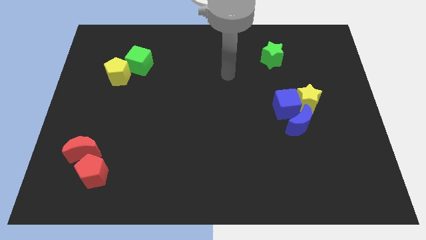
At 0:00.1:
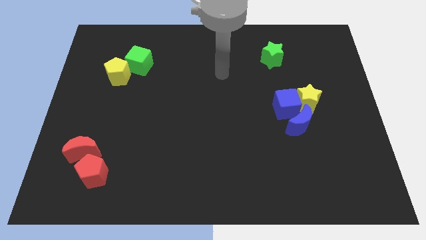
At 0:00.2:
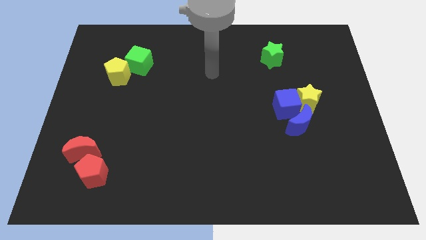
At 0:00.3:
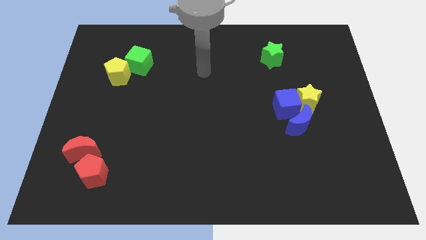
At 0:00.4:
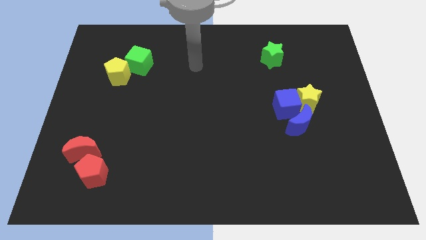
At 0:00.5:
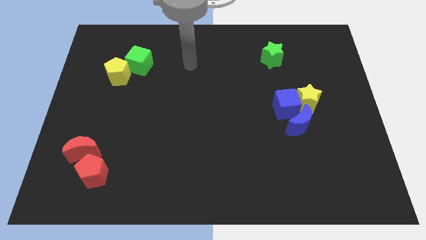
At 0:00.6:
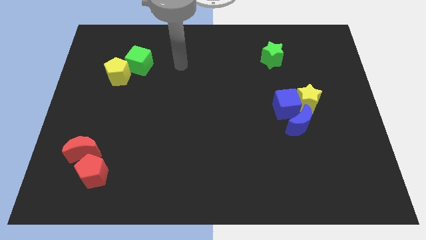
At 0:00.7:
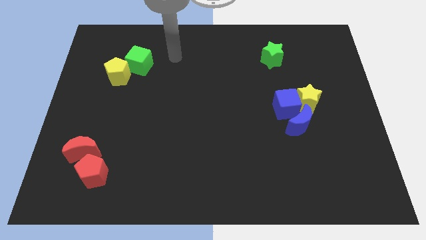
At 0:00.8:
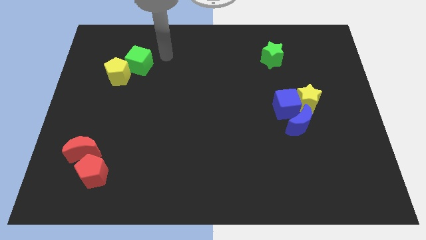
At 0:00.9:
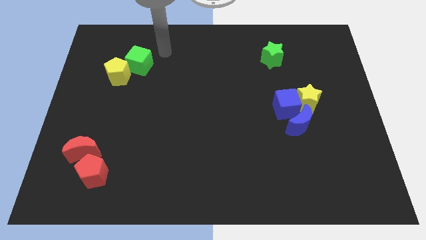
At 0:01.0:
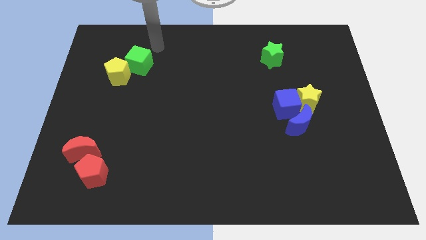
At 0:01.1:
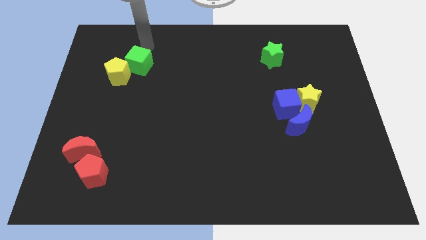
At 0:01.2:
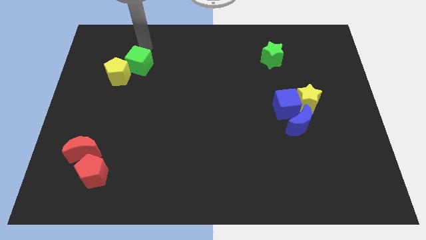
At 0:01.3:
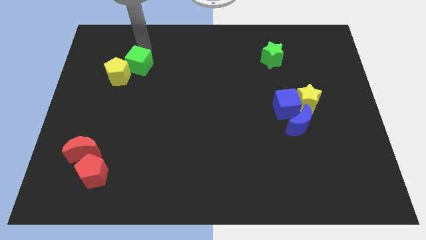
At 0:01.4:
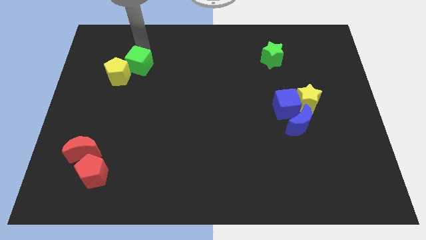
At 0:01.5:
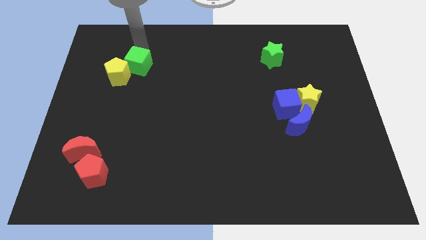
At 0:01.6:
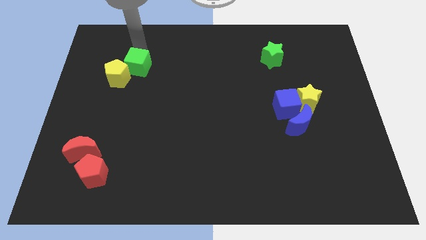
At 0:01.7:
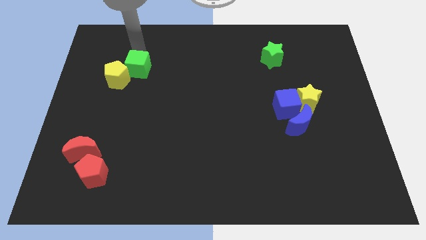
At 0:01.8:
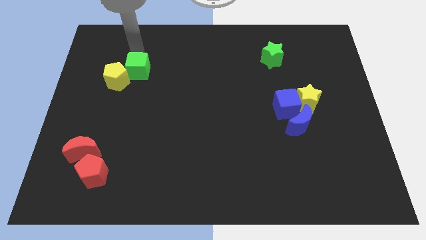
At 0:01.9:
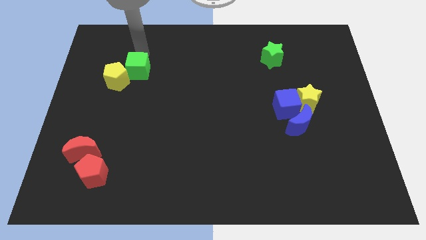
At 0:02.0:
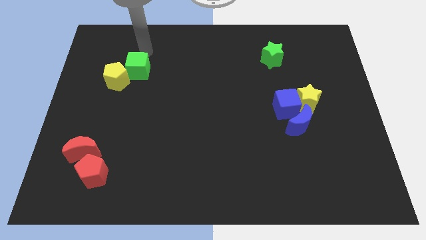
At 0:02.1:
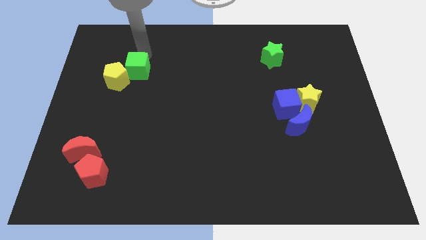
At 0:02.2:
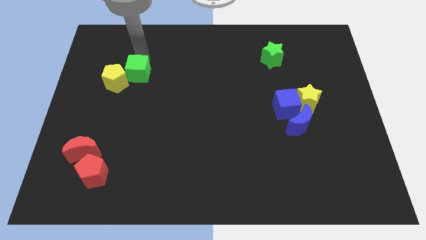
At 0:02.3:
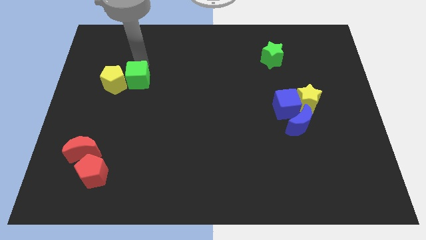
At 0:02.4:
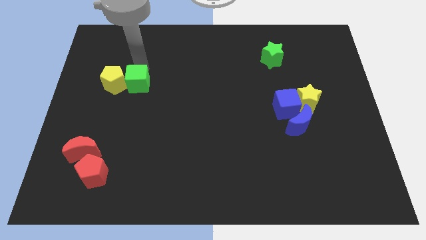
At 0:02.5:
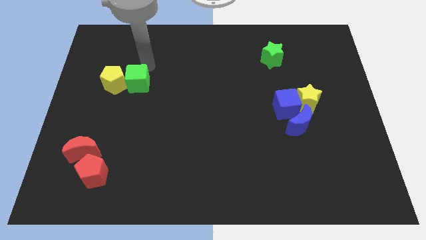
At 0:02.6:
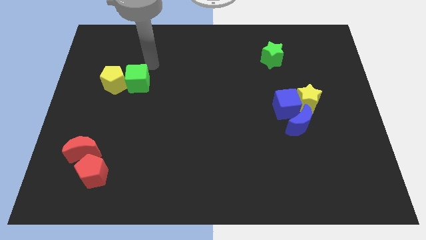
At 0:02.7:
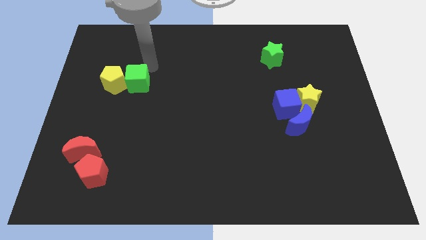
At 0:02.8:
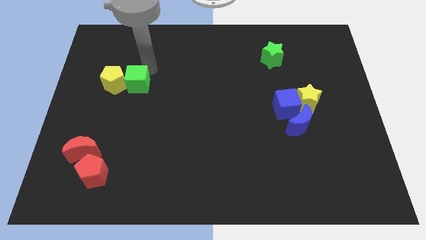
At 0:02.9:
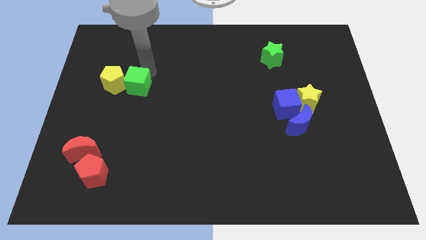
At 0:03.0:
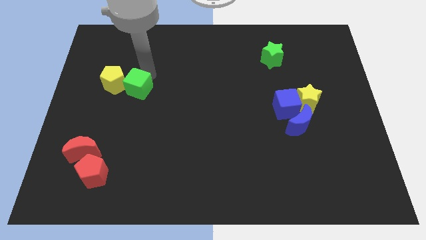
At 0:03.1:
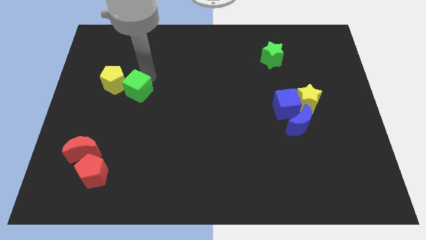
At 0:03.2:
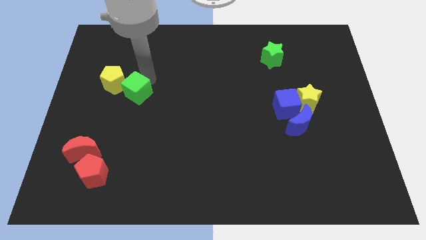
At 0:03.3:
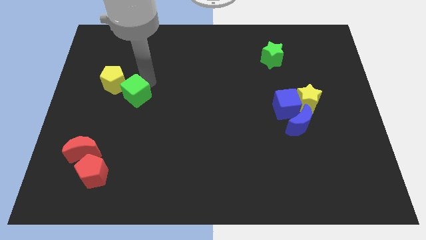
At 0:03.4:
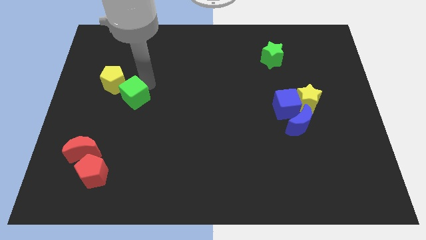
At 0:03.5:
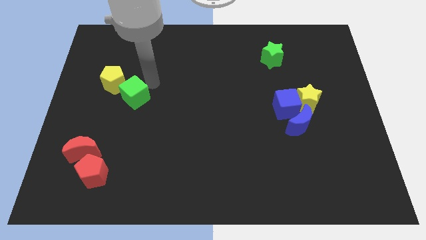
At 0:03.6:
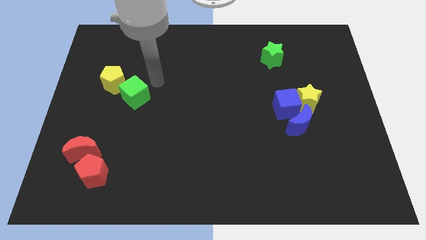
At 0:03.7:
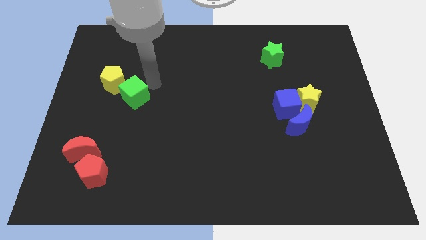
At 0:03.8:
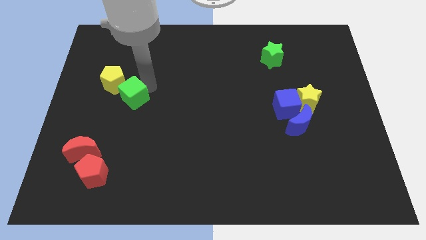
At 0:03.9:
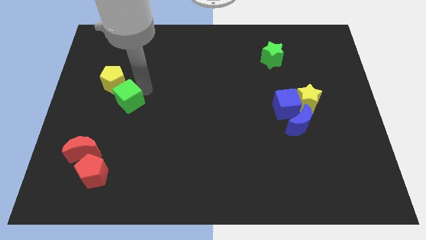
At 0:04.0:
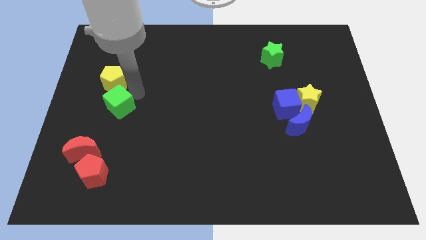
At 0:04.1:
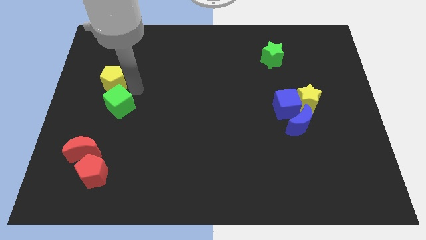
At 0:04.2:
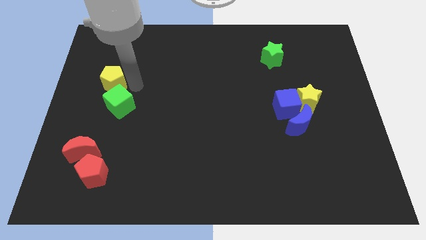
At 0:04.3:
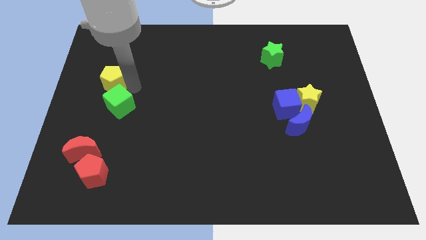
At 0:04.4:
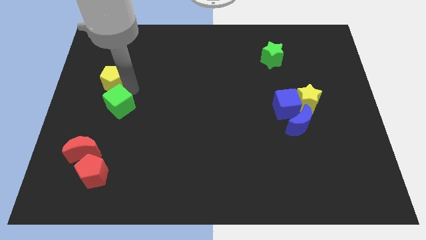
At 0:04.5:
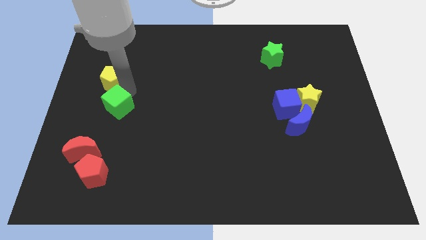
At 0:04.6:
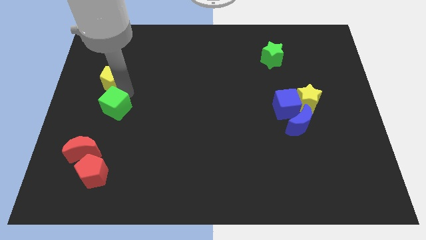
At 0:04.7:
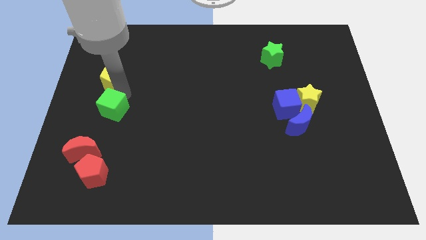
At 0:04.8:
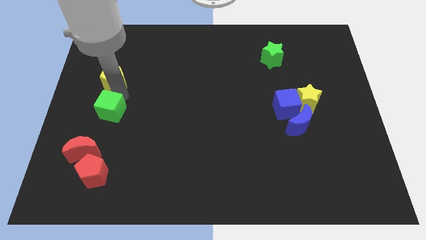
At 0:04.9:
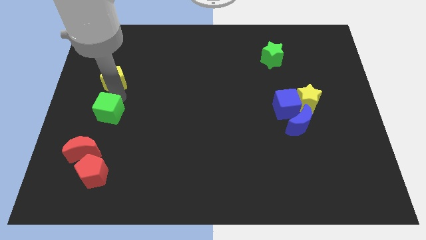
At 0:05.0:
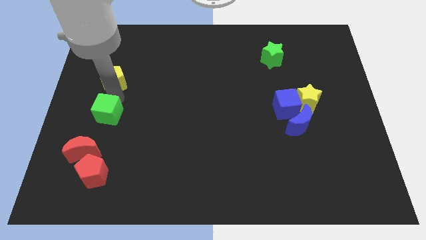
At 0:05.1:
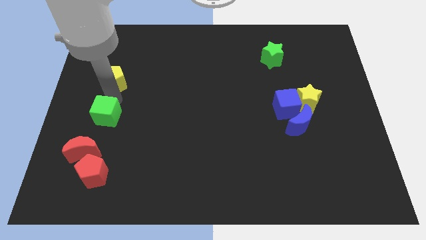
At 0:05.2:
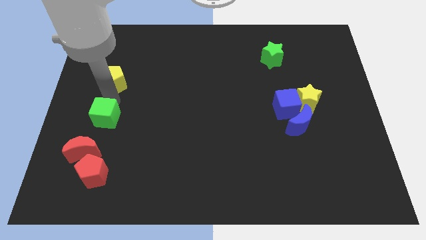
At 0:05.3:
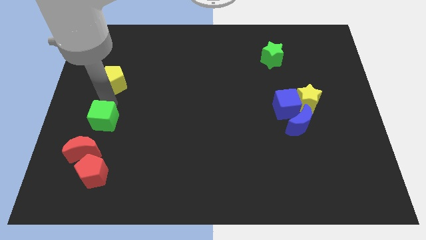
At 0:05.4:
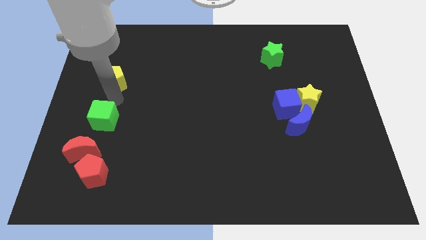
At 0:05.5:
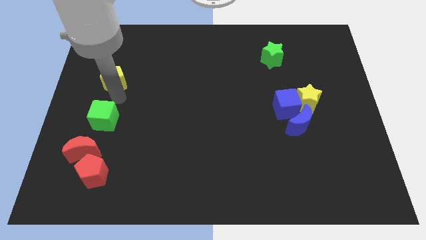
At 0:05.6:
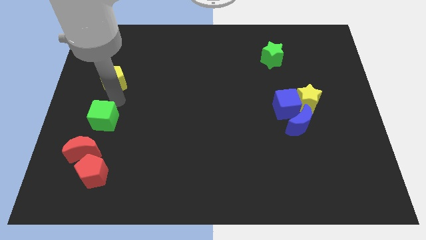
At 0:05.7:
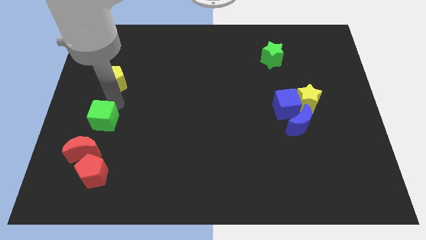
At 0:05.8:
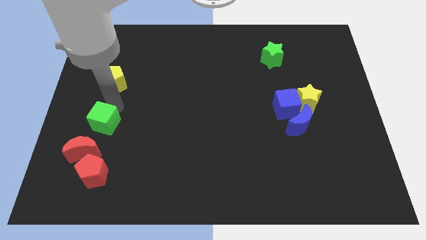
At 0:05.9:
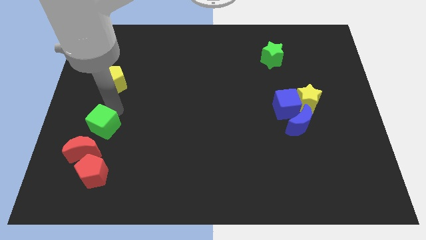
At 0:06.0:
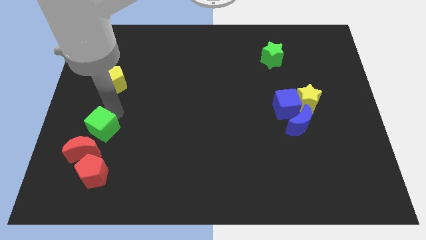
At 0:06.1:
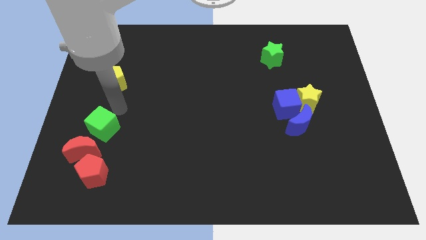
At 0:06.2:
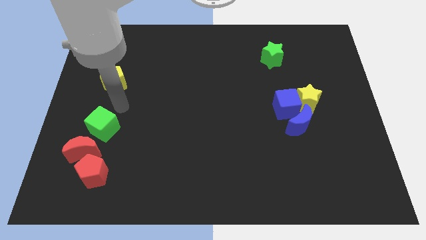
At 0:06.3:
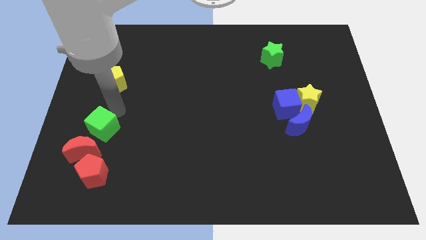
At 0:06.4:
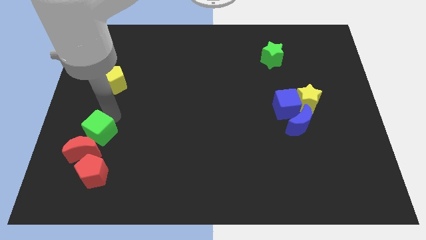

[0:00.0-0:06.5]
slide the green cube next to the red moon

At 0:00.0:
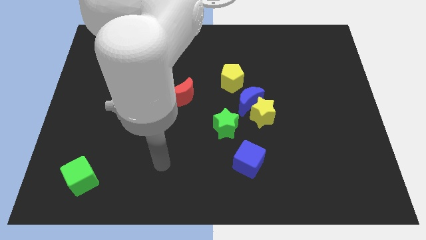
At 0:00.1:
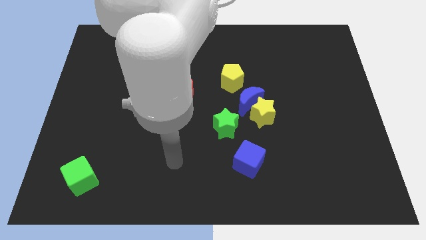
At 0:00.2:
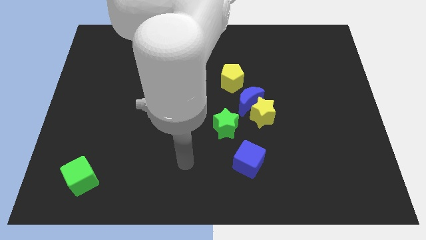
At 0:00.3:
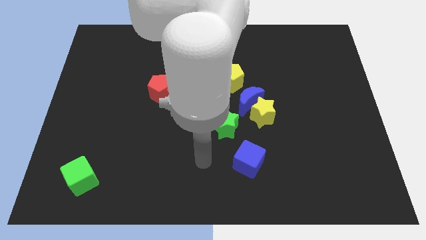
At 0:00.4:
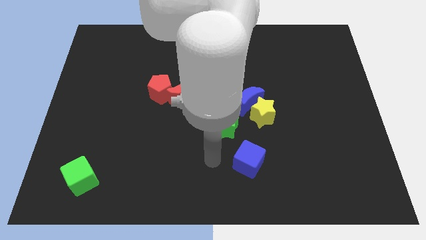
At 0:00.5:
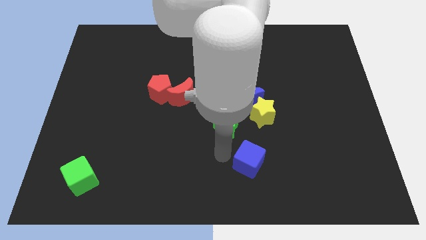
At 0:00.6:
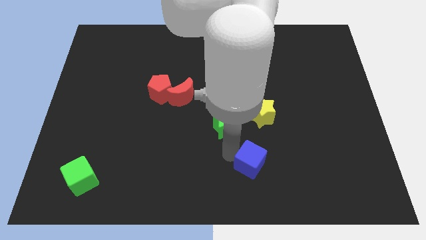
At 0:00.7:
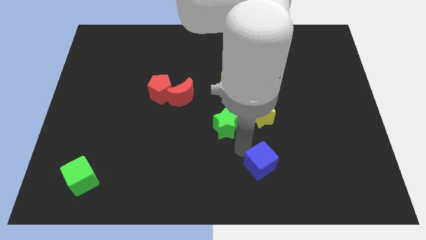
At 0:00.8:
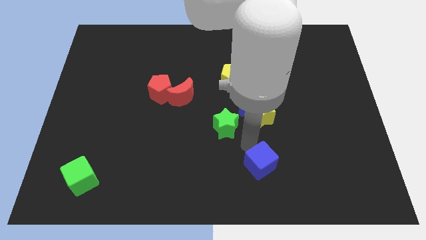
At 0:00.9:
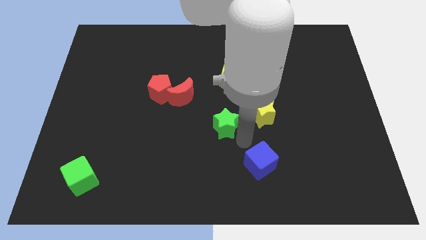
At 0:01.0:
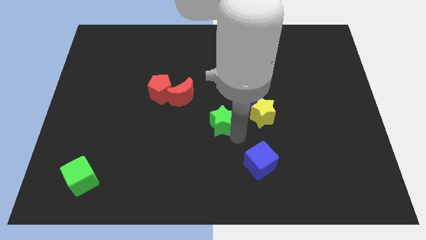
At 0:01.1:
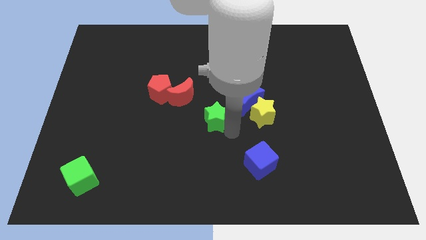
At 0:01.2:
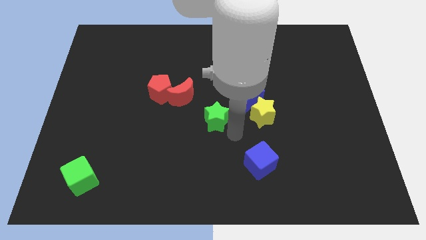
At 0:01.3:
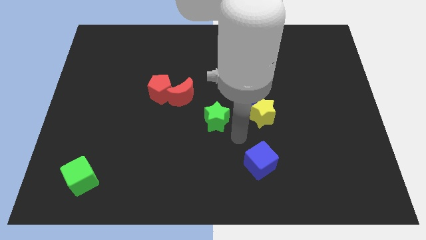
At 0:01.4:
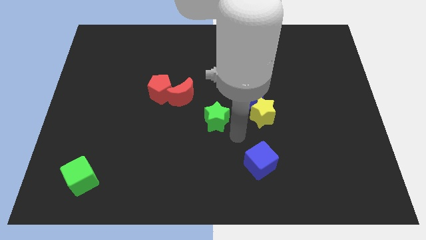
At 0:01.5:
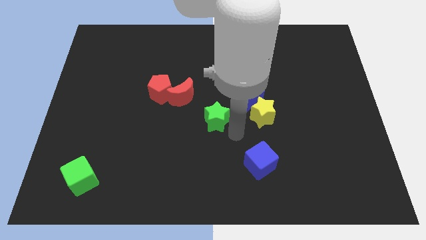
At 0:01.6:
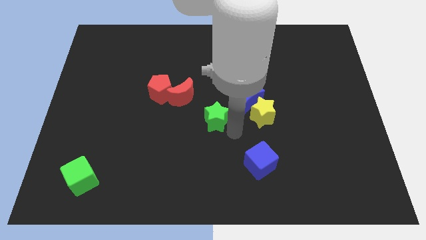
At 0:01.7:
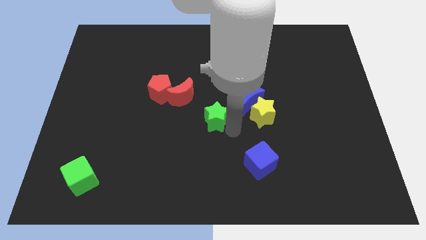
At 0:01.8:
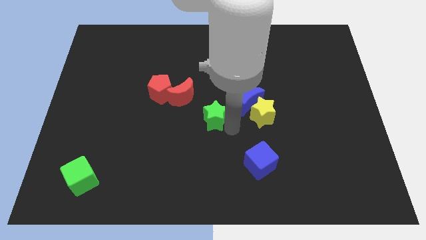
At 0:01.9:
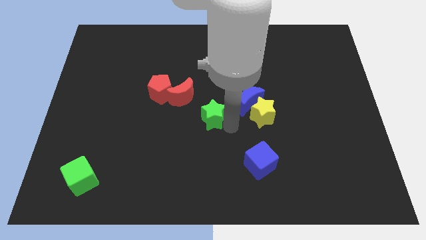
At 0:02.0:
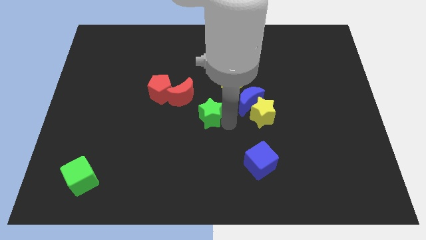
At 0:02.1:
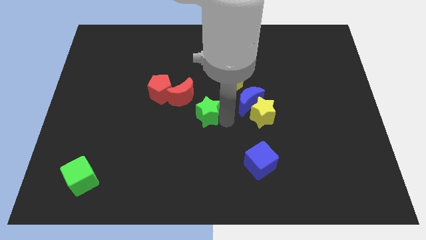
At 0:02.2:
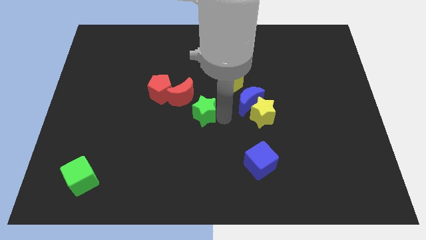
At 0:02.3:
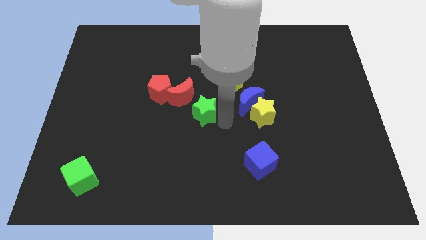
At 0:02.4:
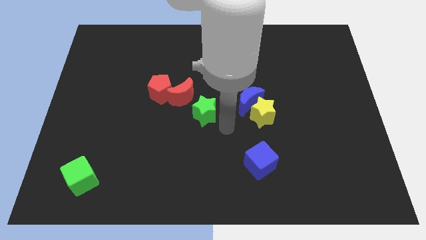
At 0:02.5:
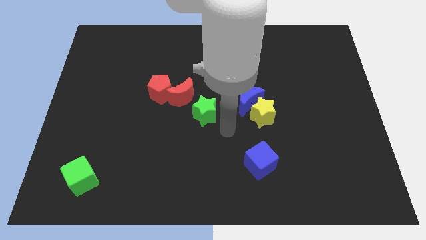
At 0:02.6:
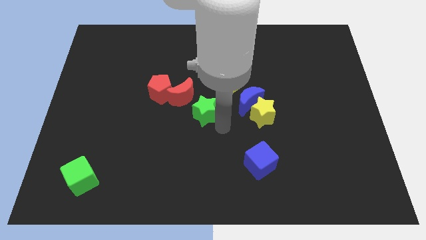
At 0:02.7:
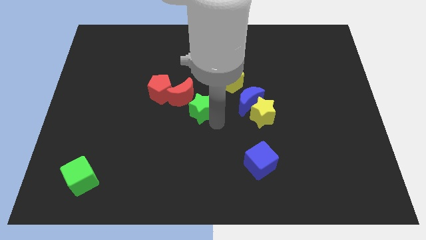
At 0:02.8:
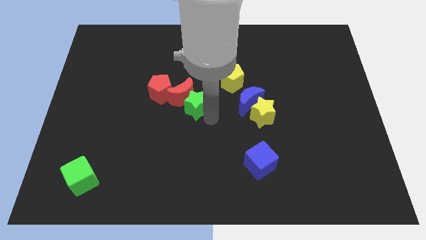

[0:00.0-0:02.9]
put the green star to the red moon
